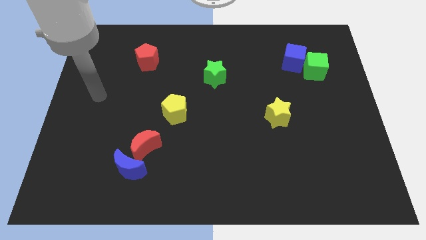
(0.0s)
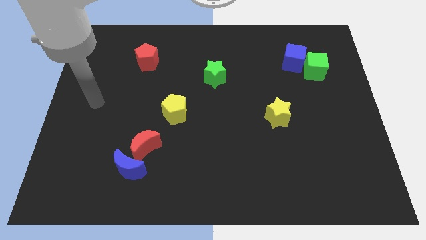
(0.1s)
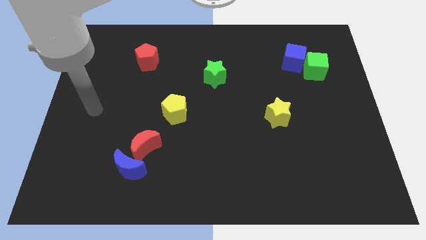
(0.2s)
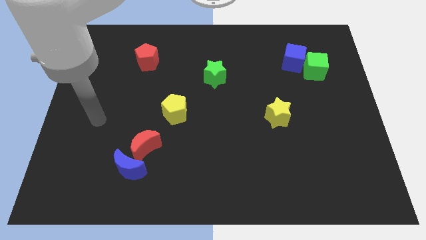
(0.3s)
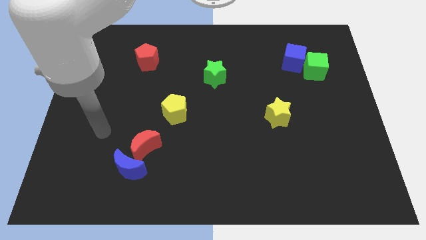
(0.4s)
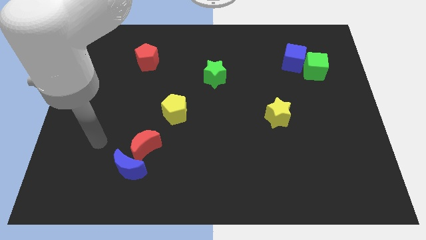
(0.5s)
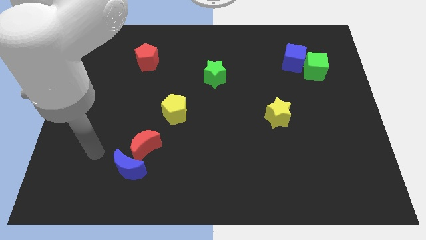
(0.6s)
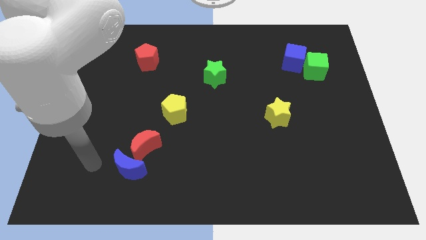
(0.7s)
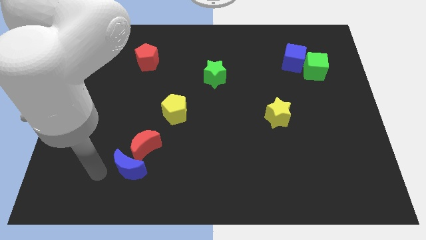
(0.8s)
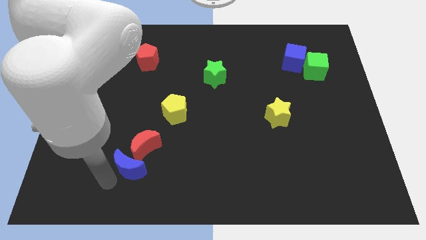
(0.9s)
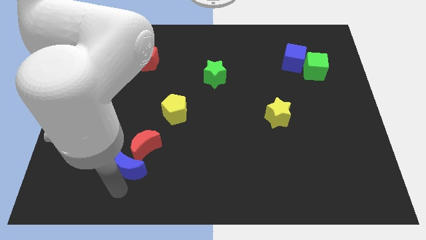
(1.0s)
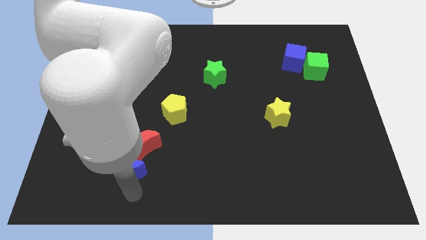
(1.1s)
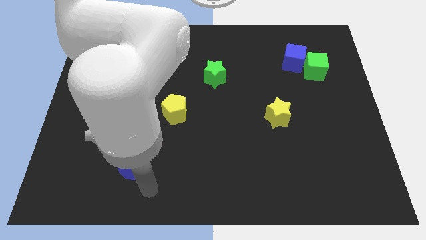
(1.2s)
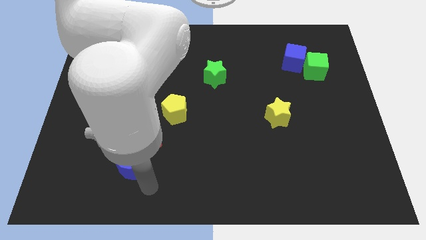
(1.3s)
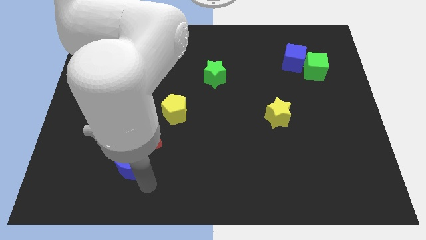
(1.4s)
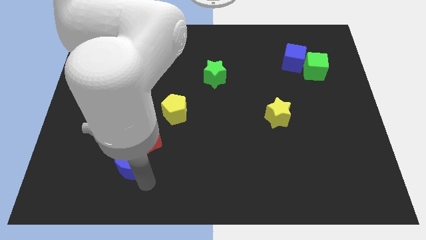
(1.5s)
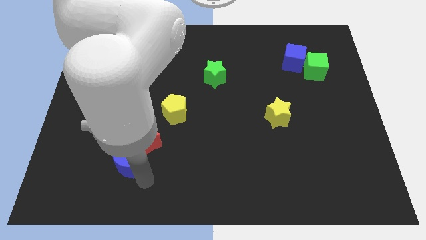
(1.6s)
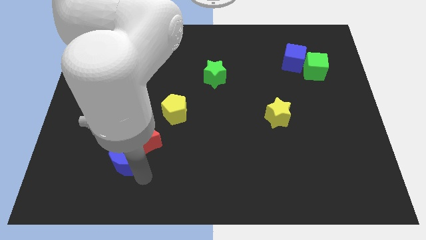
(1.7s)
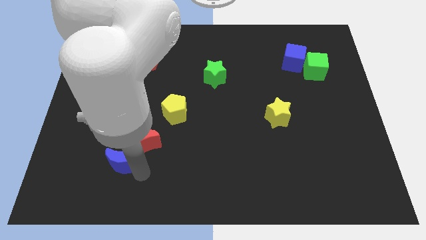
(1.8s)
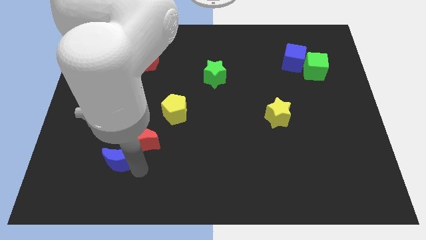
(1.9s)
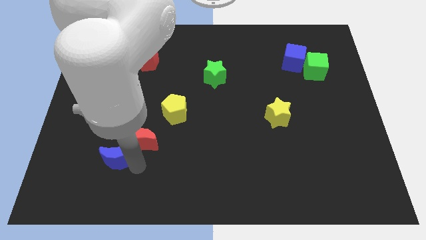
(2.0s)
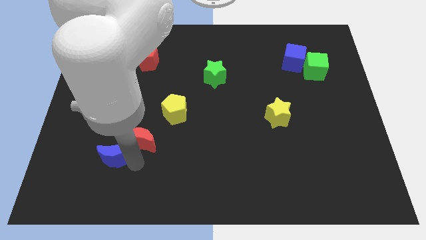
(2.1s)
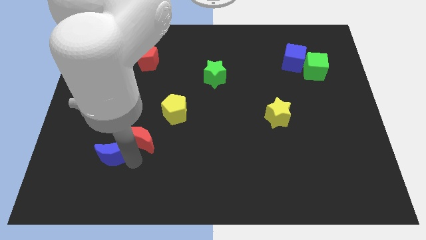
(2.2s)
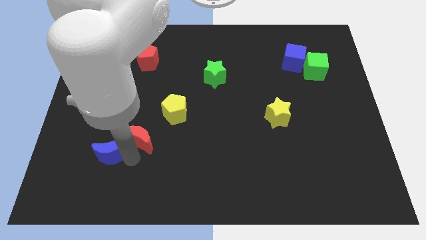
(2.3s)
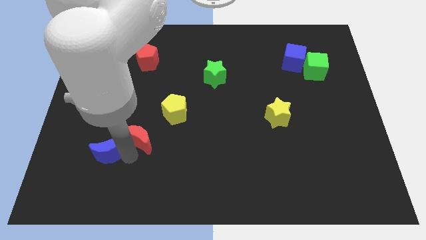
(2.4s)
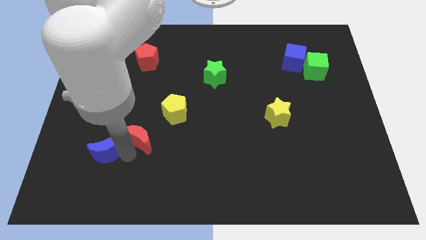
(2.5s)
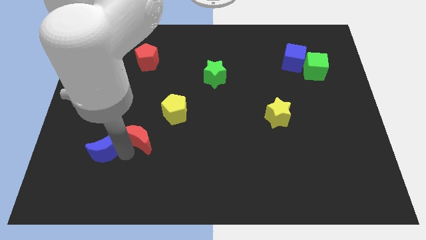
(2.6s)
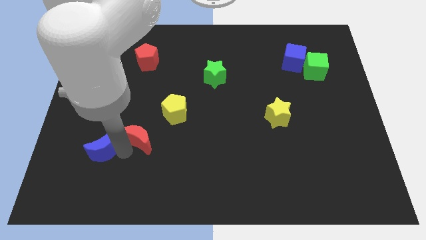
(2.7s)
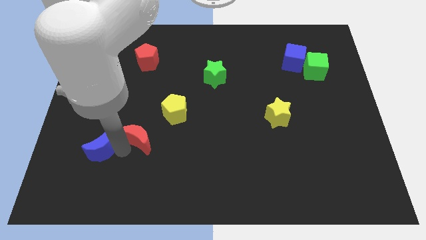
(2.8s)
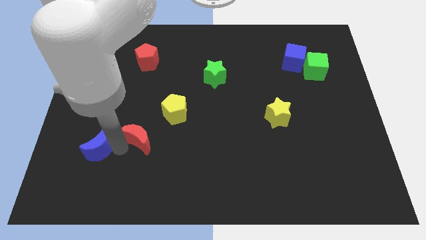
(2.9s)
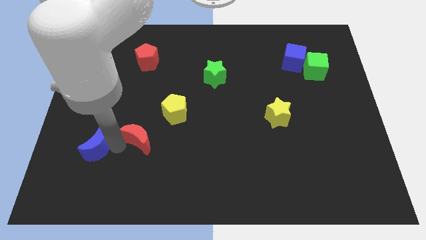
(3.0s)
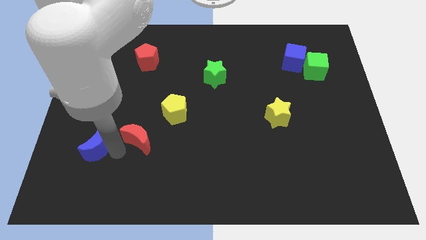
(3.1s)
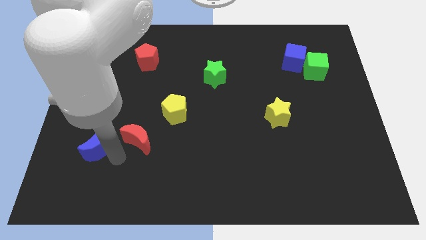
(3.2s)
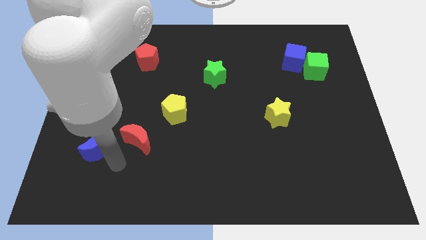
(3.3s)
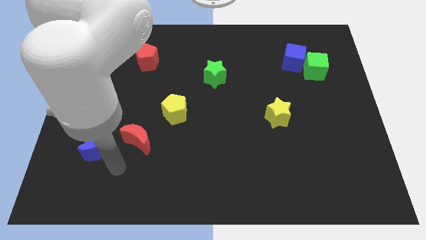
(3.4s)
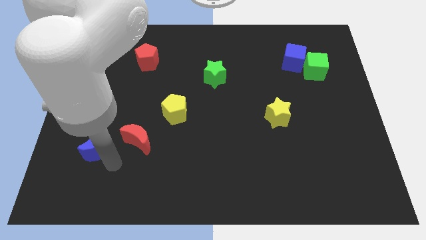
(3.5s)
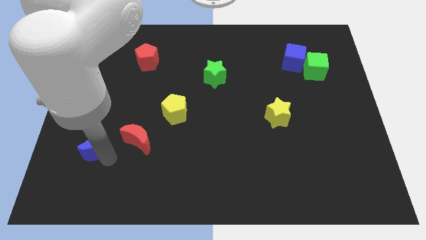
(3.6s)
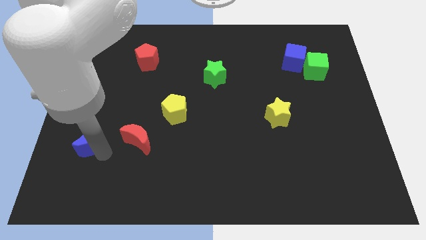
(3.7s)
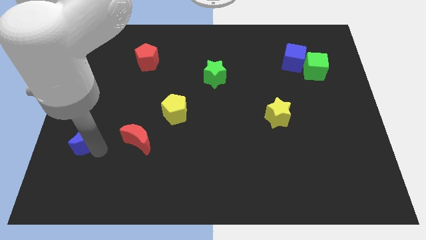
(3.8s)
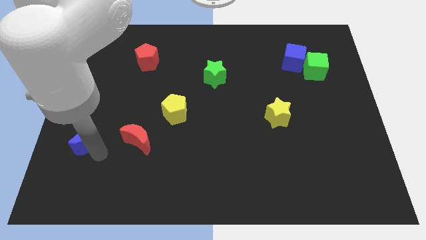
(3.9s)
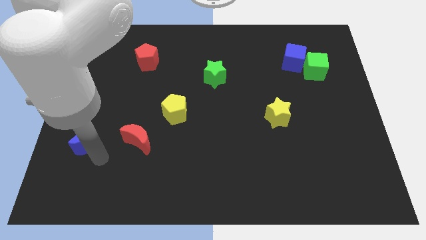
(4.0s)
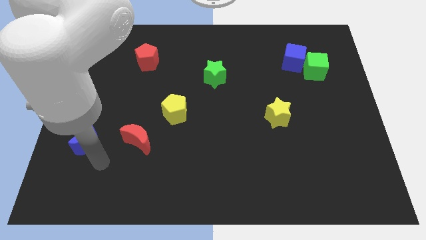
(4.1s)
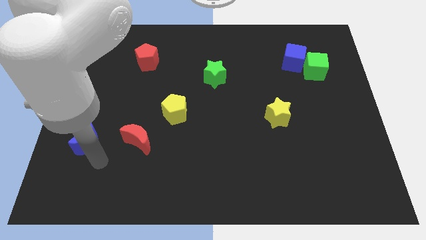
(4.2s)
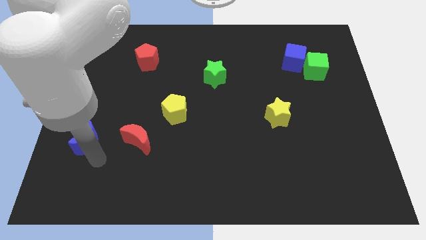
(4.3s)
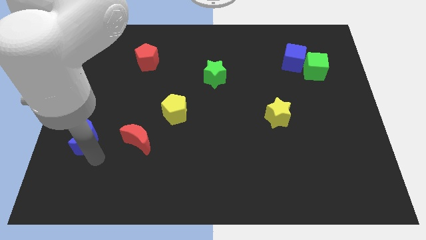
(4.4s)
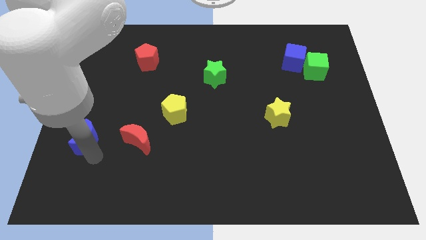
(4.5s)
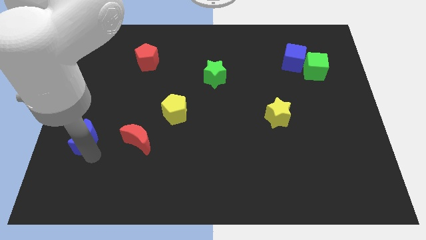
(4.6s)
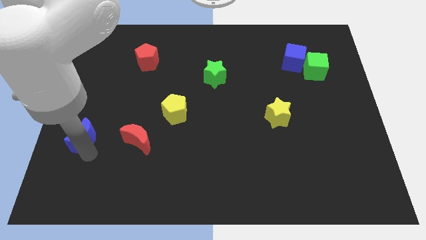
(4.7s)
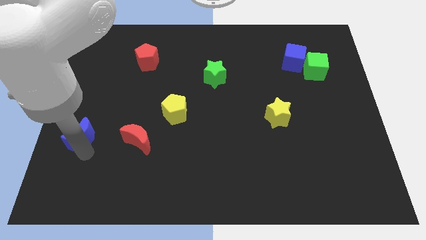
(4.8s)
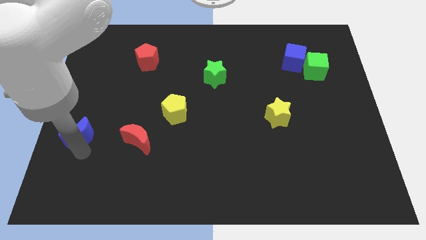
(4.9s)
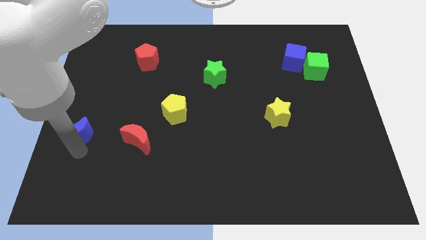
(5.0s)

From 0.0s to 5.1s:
put the blue moon to the left side

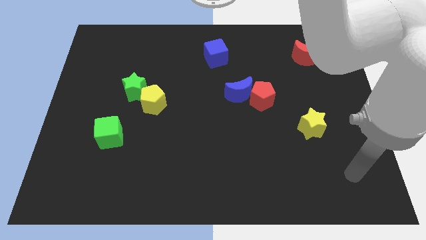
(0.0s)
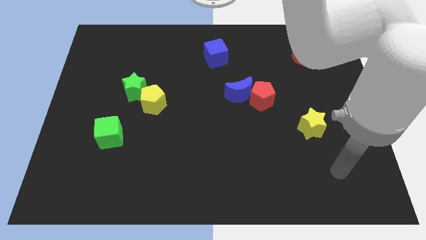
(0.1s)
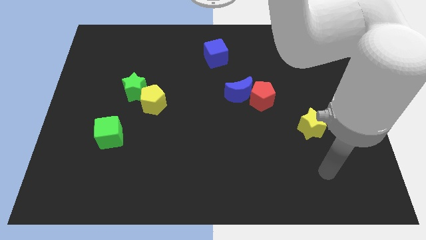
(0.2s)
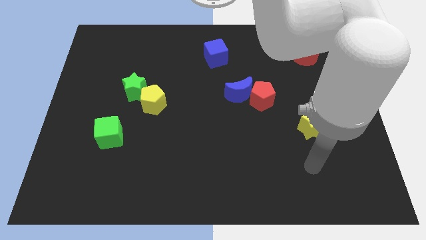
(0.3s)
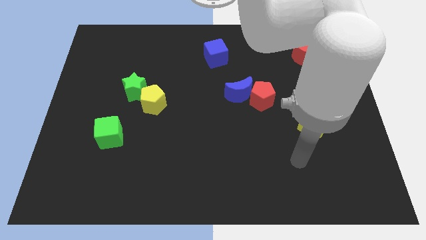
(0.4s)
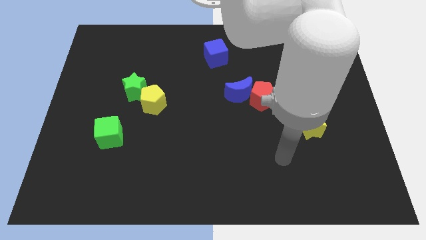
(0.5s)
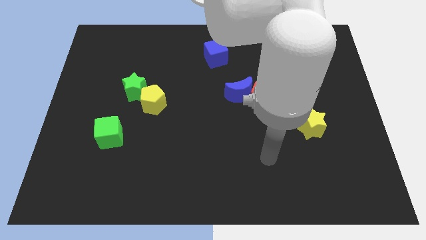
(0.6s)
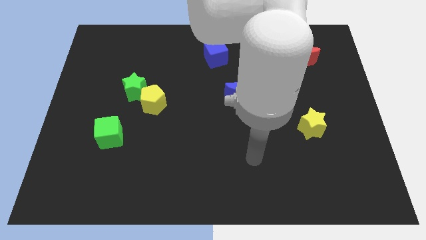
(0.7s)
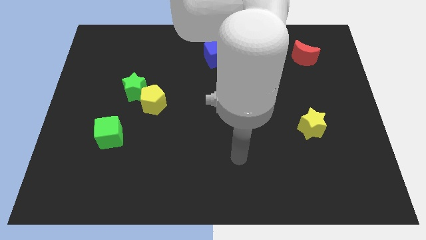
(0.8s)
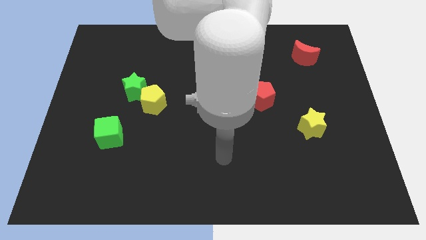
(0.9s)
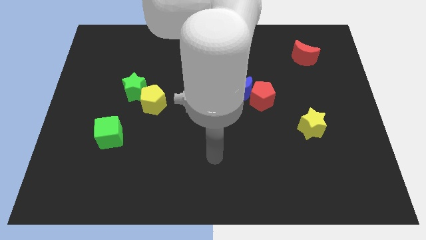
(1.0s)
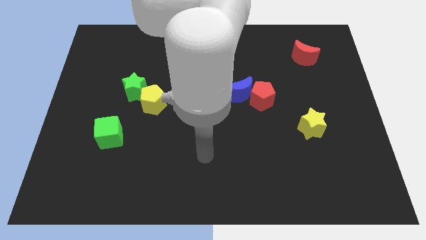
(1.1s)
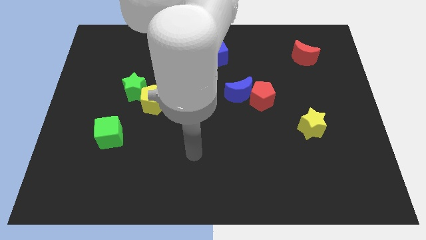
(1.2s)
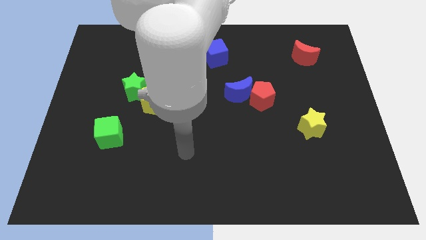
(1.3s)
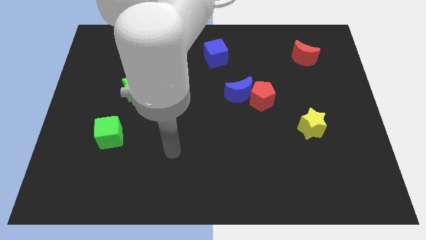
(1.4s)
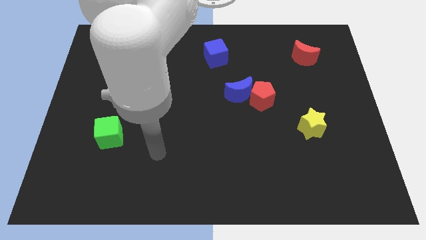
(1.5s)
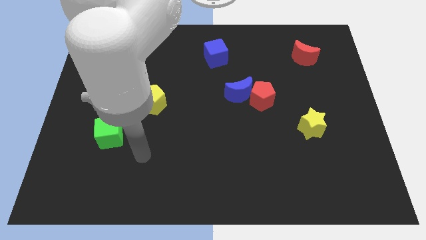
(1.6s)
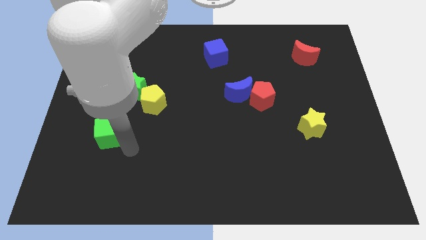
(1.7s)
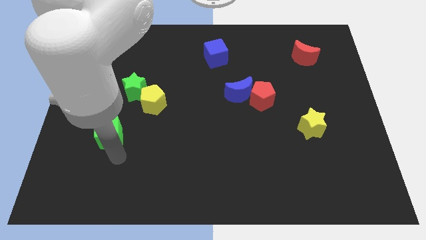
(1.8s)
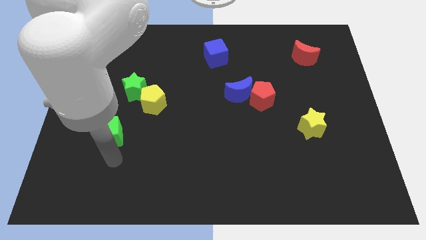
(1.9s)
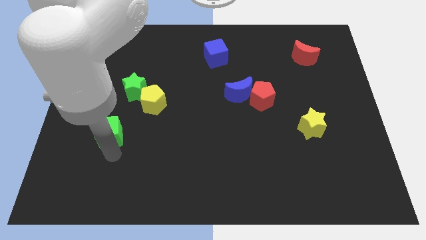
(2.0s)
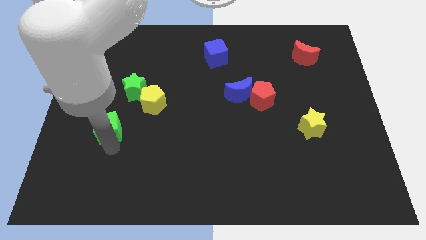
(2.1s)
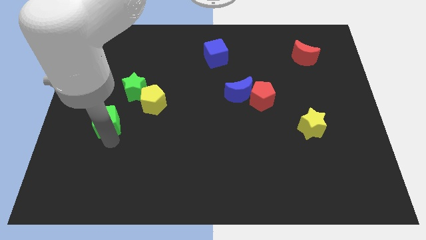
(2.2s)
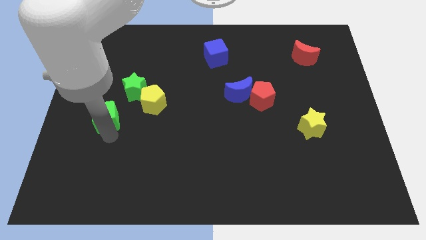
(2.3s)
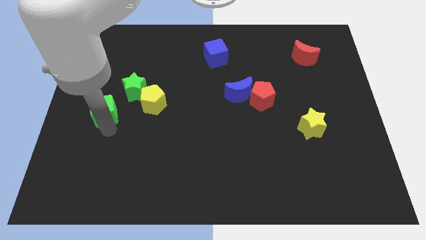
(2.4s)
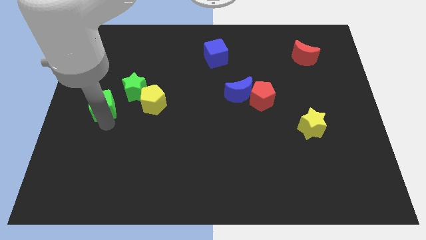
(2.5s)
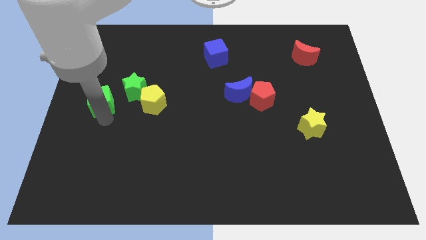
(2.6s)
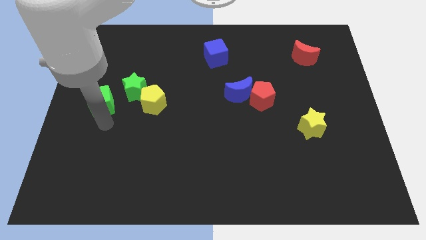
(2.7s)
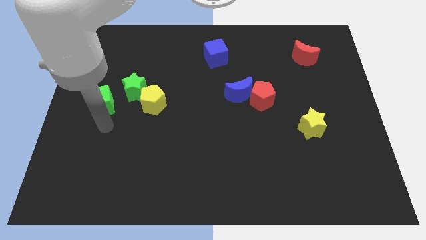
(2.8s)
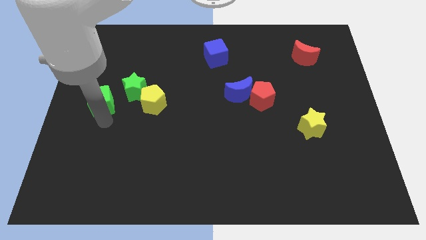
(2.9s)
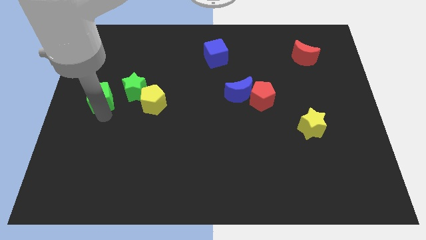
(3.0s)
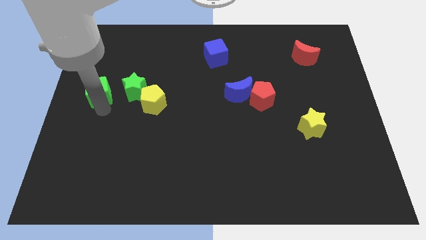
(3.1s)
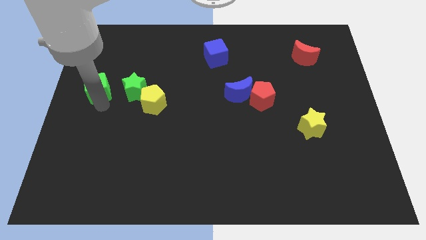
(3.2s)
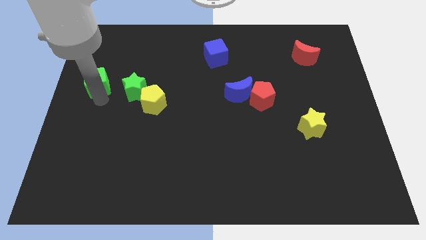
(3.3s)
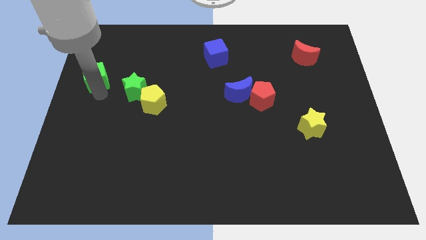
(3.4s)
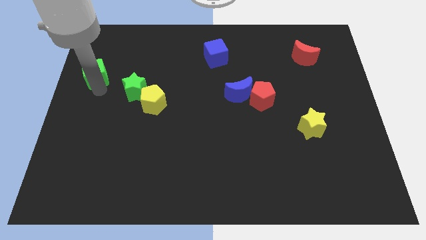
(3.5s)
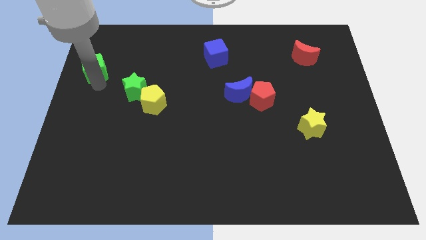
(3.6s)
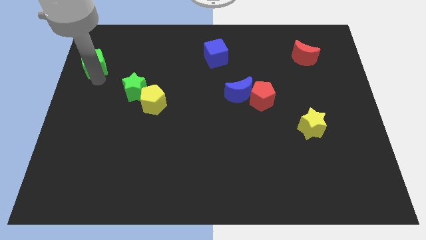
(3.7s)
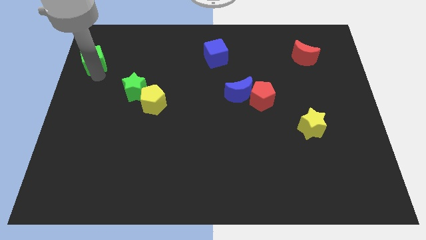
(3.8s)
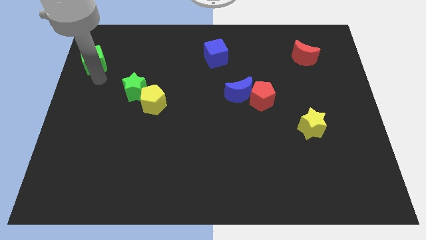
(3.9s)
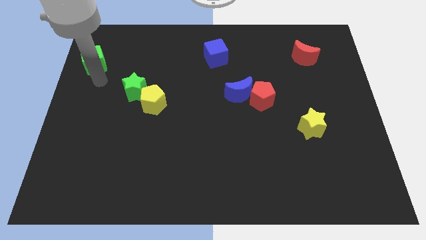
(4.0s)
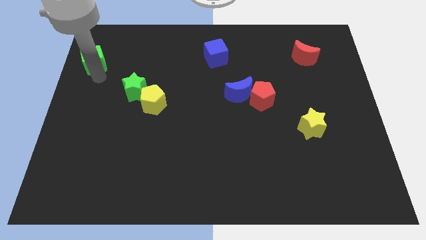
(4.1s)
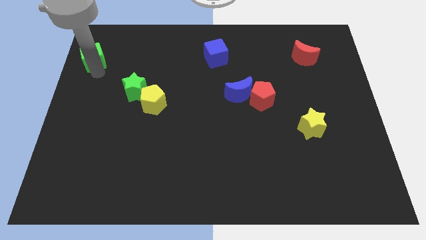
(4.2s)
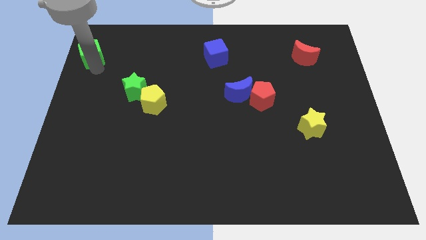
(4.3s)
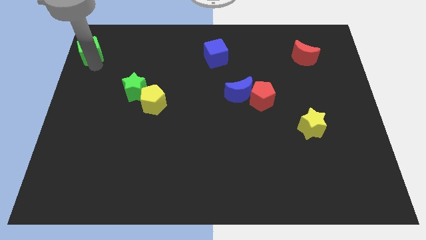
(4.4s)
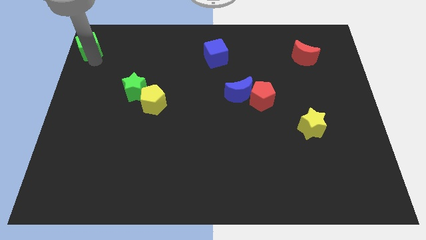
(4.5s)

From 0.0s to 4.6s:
put the green cube to the top left corner
